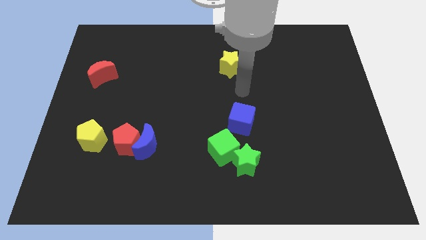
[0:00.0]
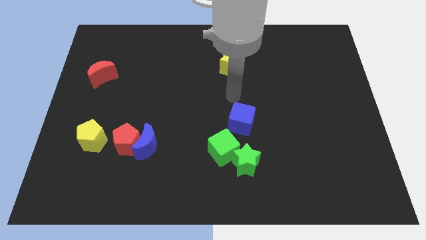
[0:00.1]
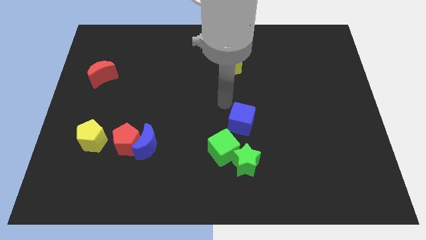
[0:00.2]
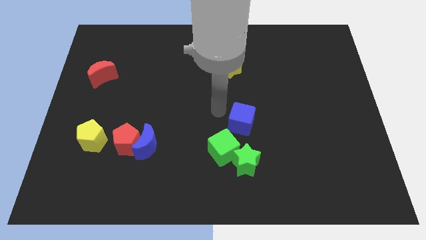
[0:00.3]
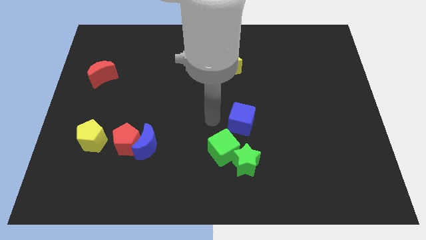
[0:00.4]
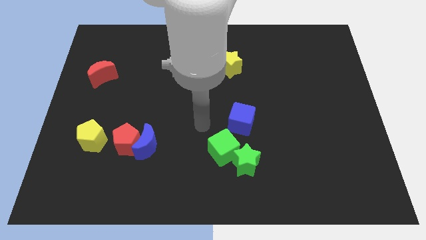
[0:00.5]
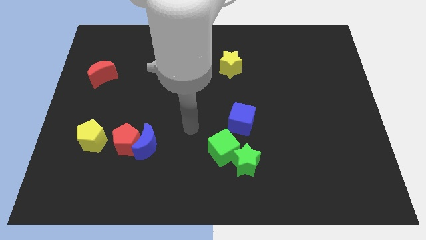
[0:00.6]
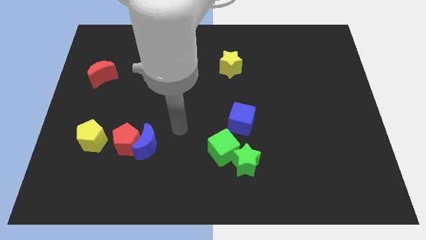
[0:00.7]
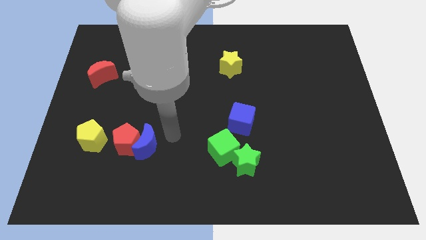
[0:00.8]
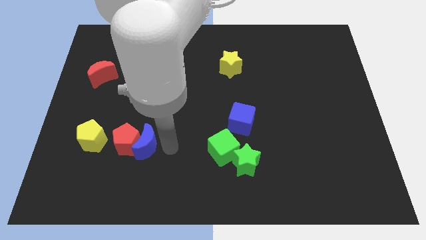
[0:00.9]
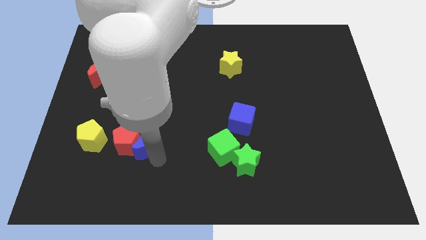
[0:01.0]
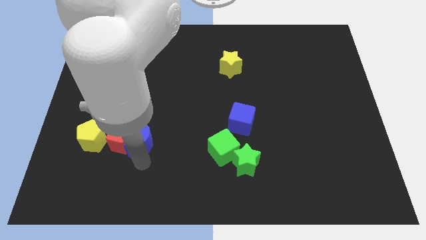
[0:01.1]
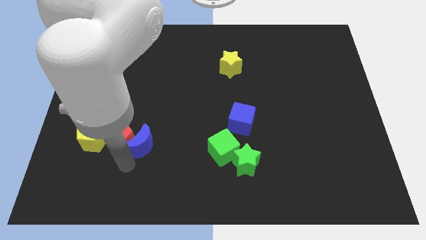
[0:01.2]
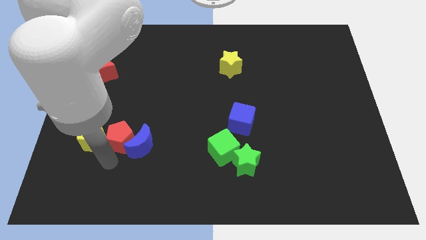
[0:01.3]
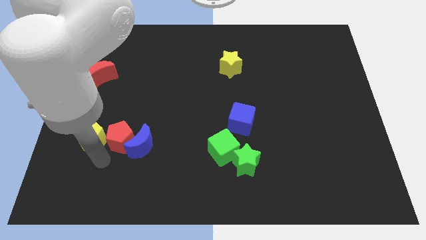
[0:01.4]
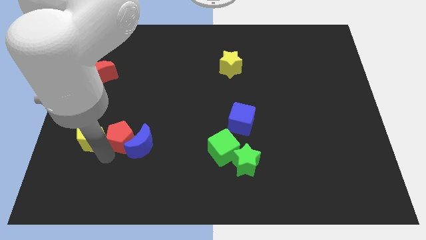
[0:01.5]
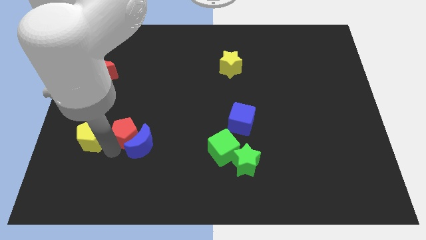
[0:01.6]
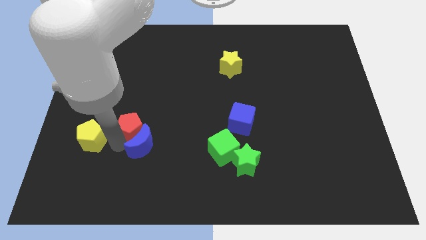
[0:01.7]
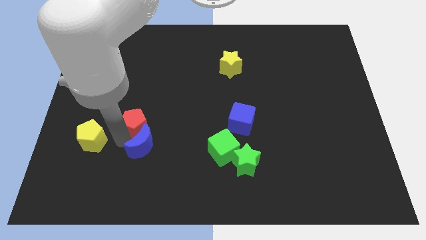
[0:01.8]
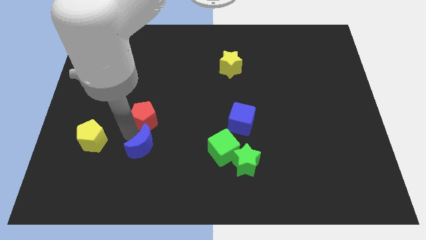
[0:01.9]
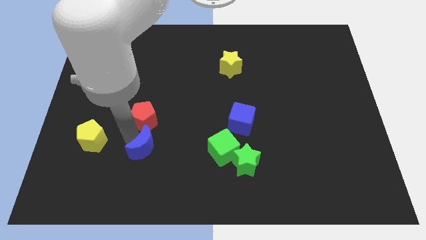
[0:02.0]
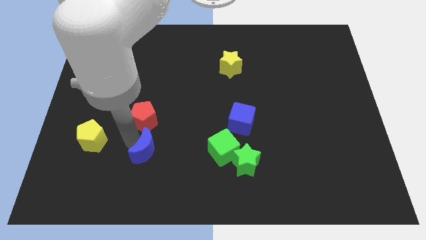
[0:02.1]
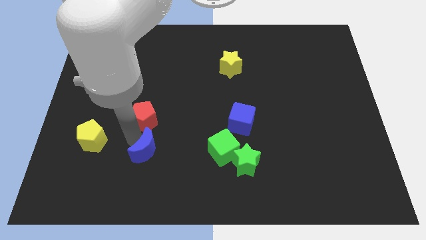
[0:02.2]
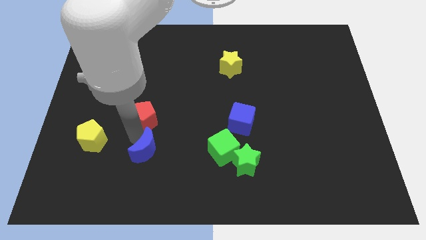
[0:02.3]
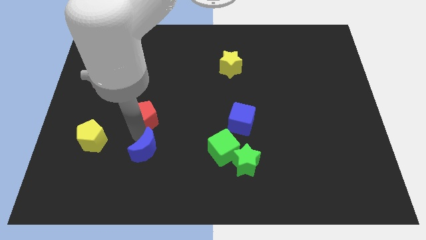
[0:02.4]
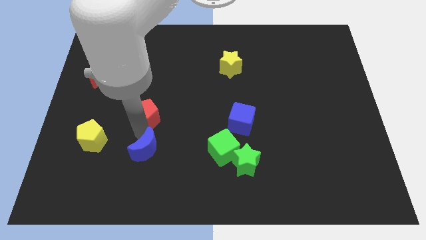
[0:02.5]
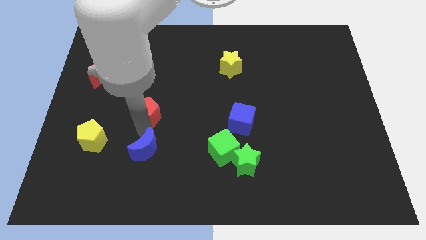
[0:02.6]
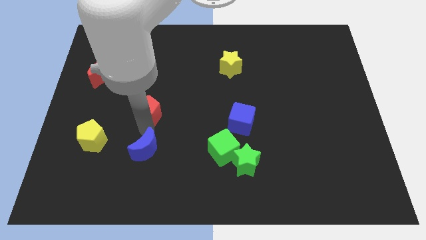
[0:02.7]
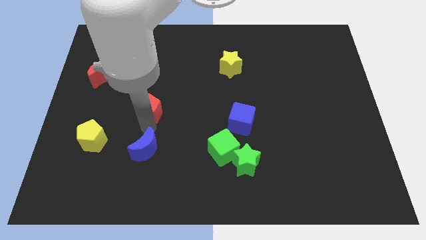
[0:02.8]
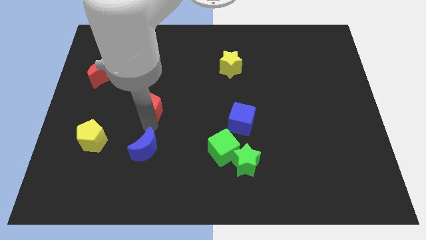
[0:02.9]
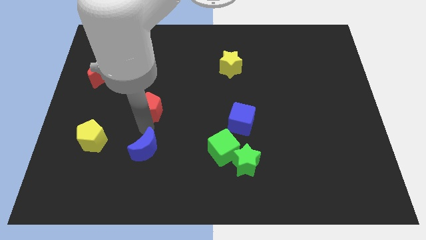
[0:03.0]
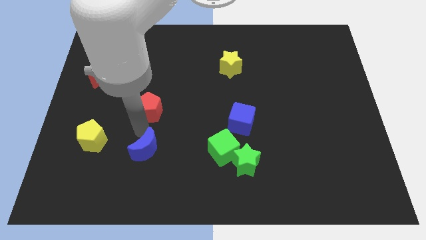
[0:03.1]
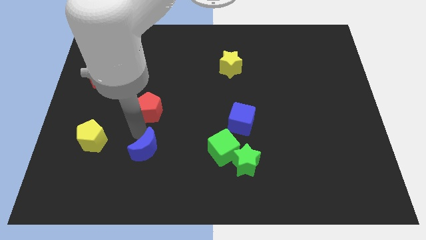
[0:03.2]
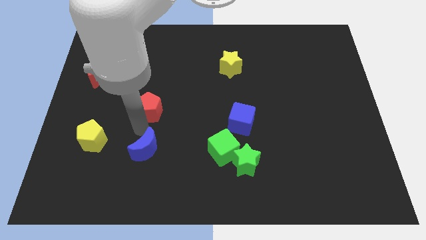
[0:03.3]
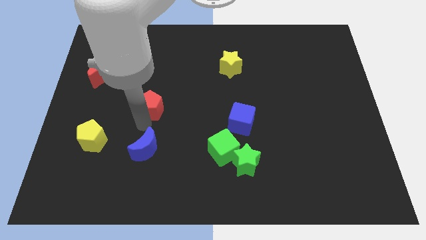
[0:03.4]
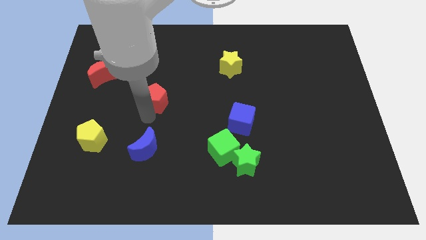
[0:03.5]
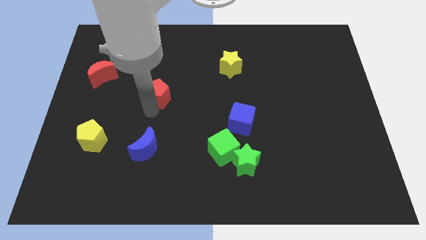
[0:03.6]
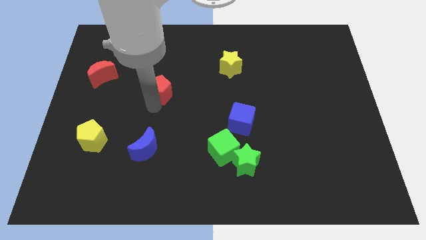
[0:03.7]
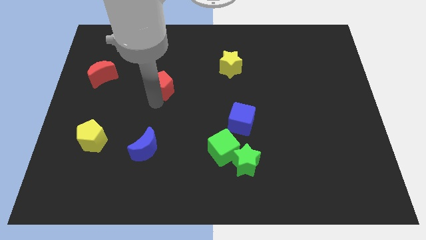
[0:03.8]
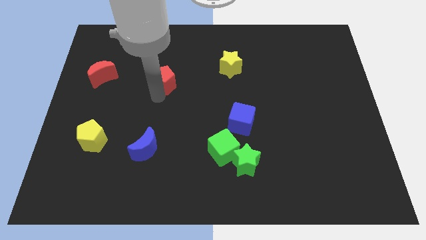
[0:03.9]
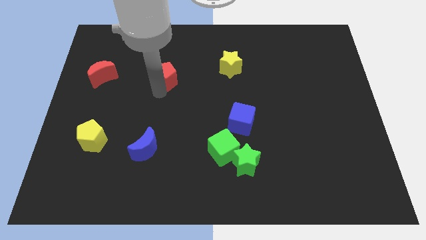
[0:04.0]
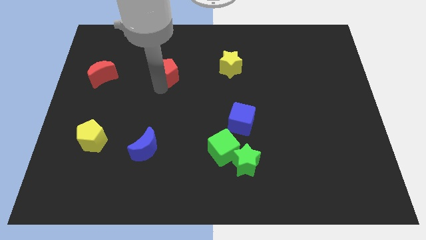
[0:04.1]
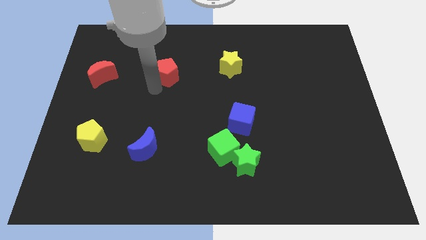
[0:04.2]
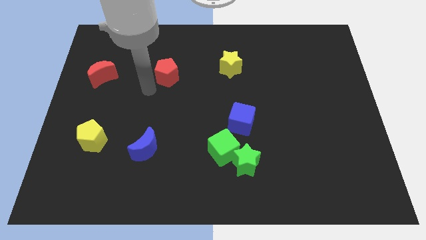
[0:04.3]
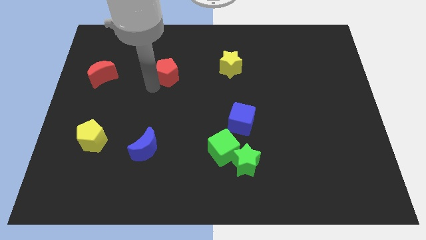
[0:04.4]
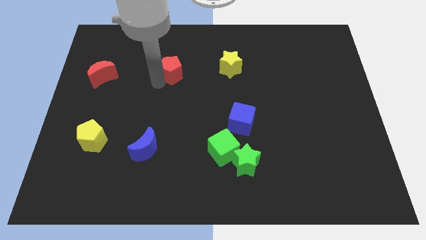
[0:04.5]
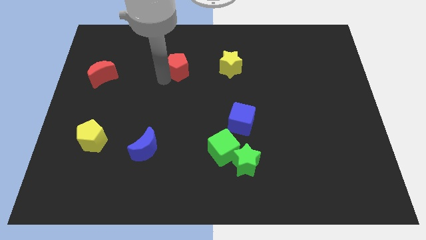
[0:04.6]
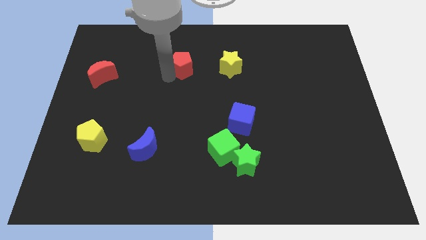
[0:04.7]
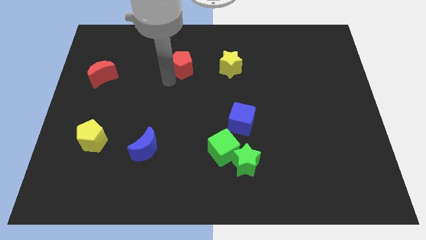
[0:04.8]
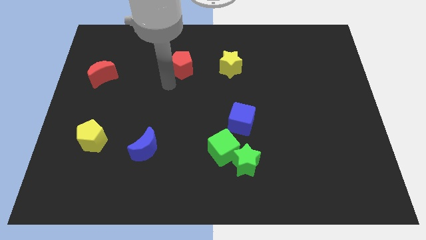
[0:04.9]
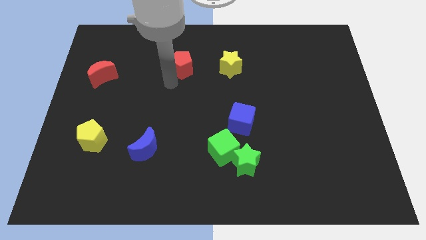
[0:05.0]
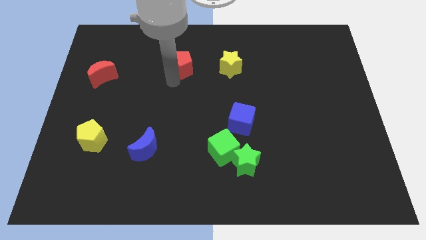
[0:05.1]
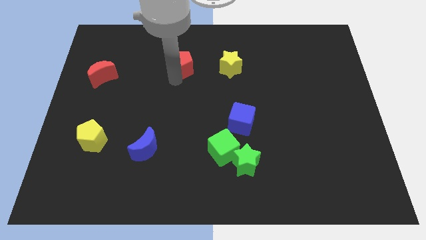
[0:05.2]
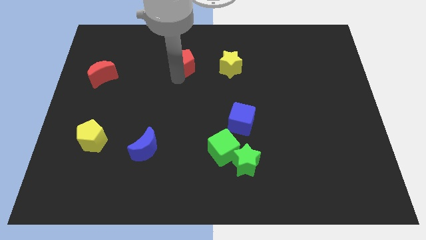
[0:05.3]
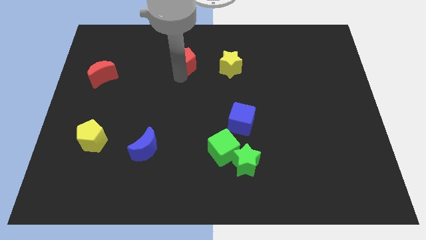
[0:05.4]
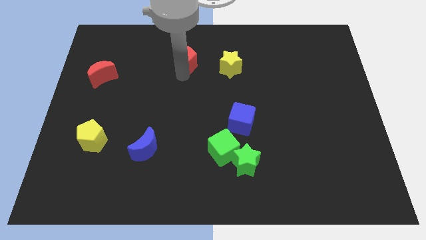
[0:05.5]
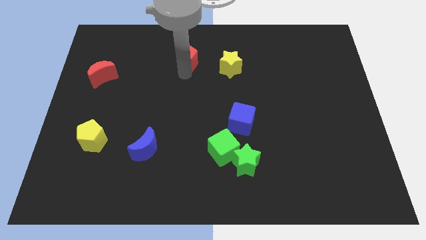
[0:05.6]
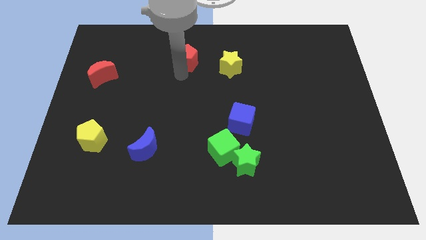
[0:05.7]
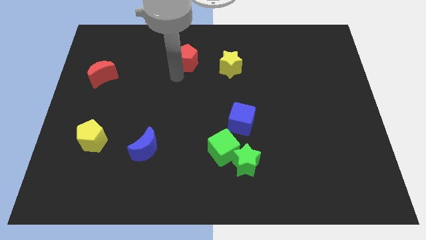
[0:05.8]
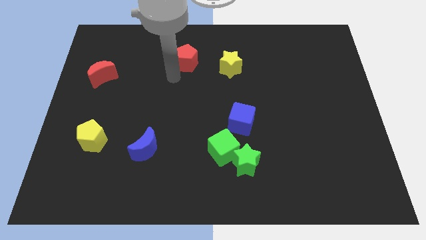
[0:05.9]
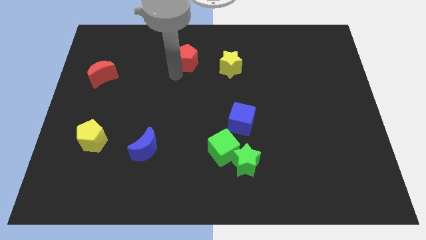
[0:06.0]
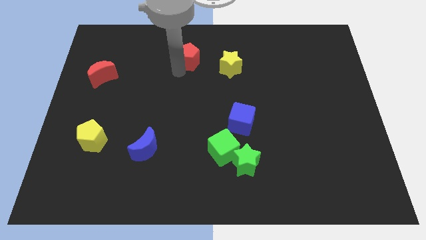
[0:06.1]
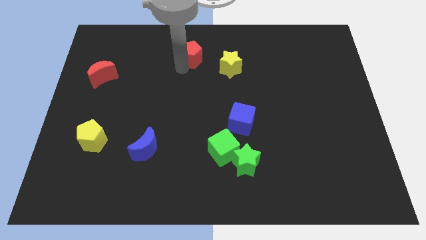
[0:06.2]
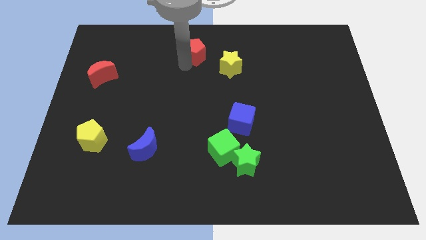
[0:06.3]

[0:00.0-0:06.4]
put the red pentagon to the top side
